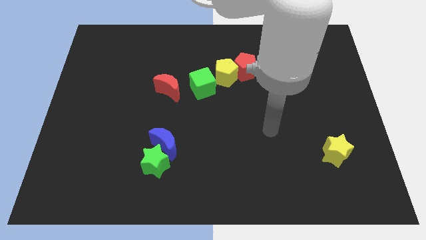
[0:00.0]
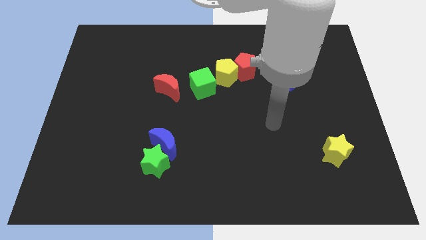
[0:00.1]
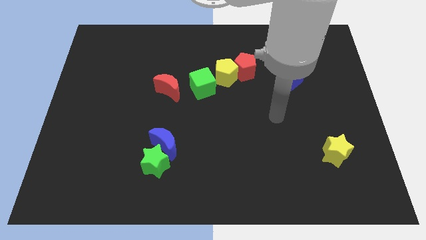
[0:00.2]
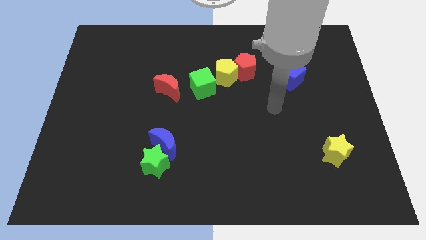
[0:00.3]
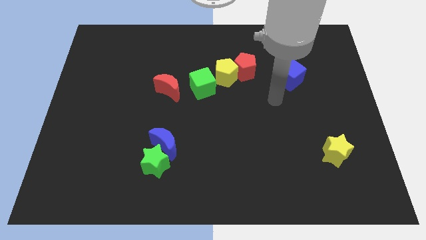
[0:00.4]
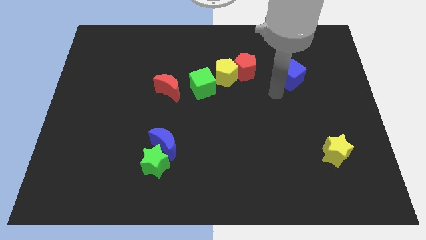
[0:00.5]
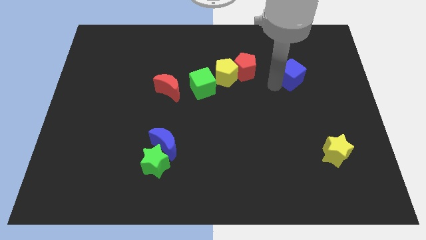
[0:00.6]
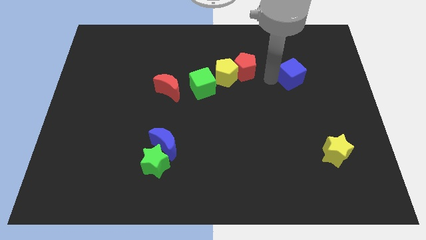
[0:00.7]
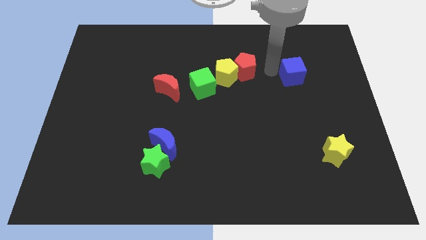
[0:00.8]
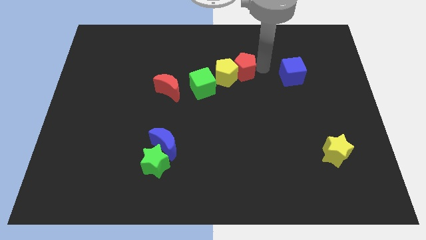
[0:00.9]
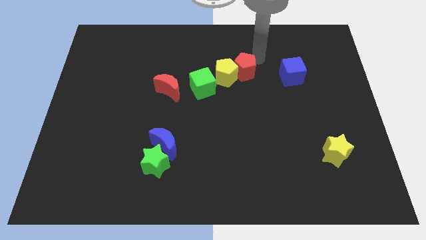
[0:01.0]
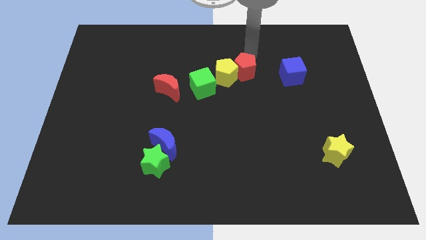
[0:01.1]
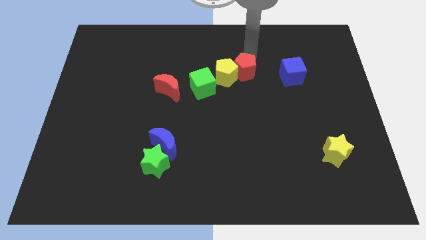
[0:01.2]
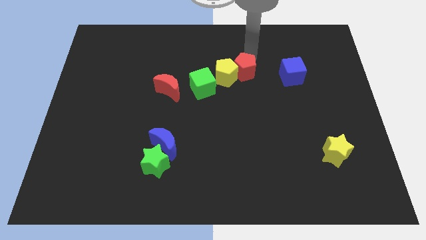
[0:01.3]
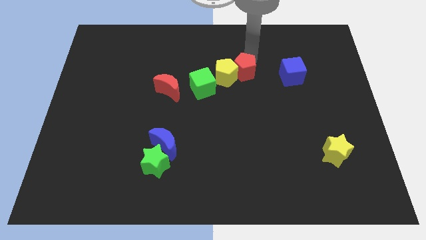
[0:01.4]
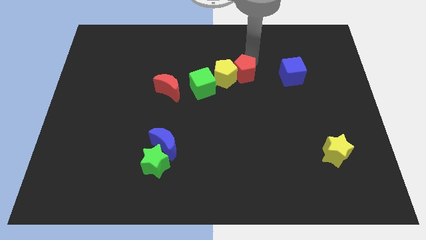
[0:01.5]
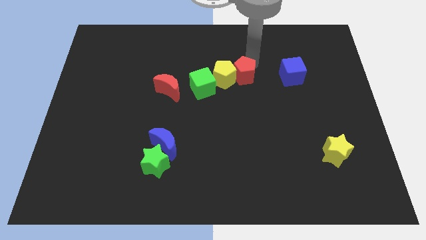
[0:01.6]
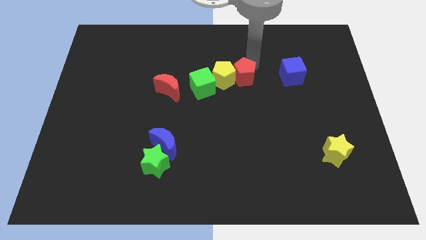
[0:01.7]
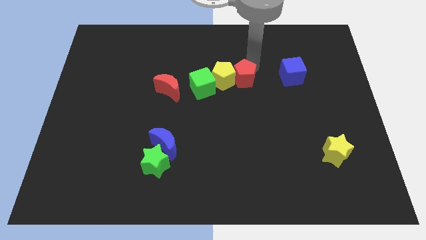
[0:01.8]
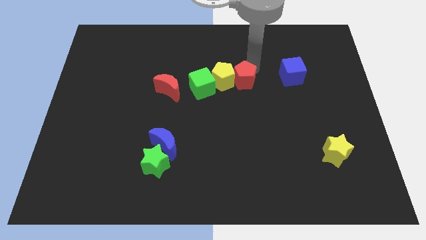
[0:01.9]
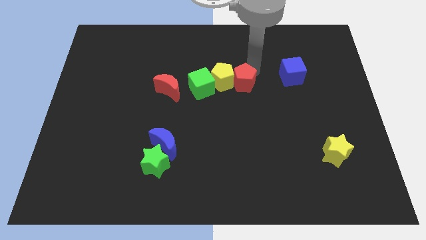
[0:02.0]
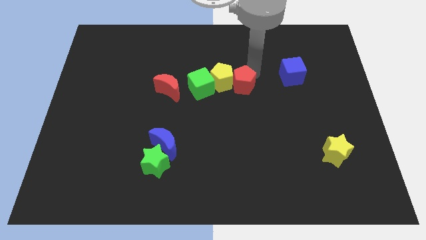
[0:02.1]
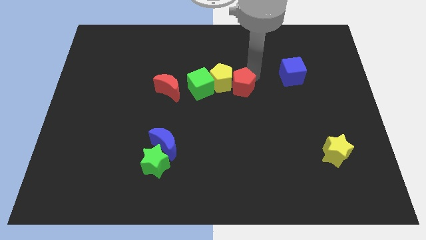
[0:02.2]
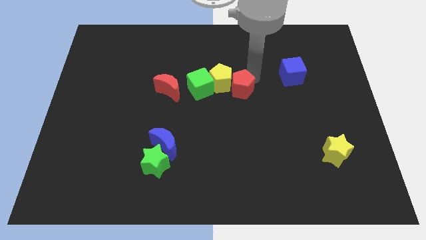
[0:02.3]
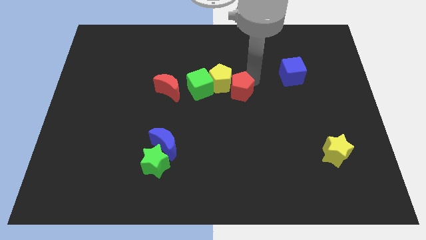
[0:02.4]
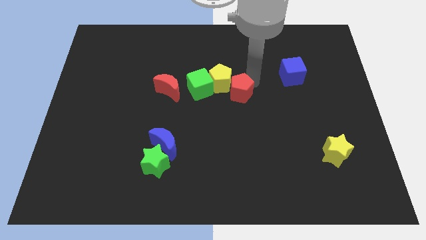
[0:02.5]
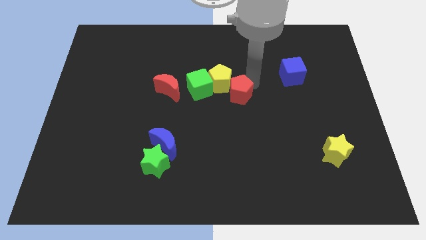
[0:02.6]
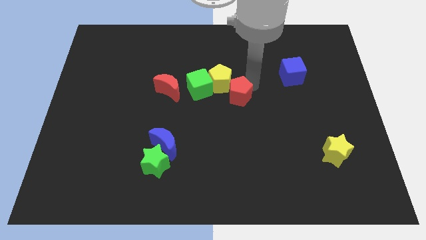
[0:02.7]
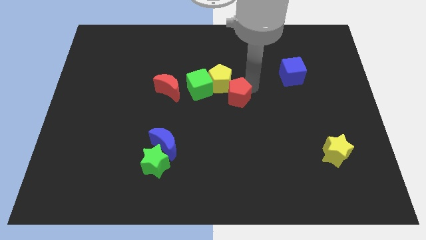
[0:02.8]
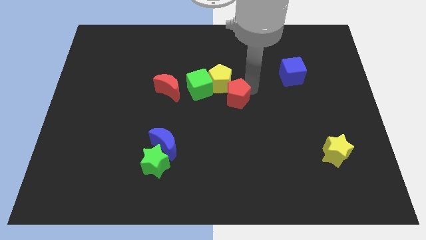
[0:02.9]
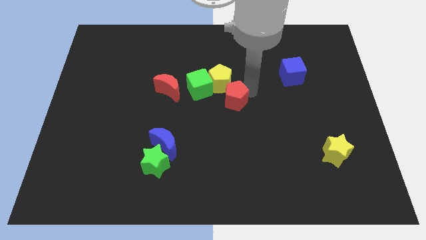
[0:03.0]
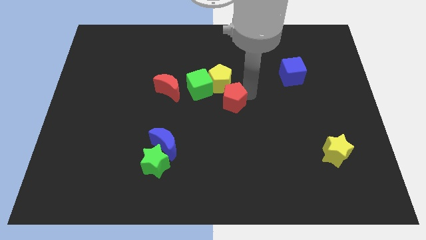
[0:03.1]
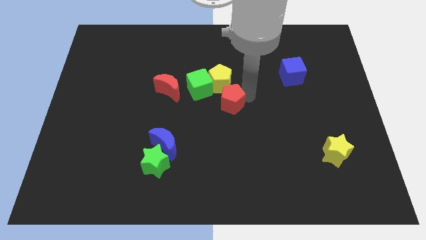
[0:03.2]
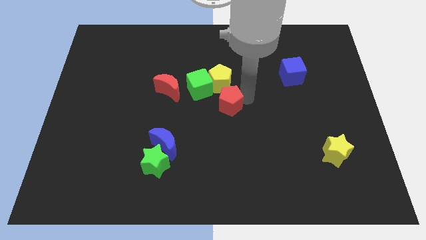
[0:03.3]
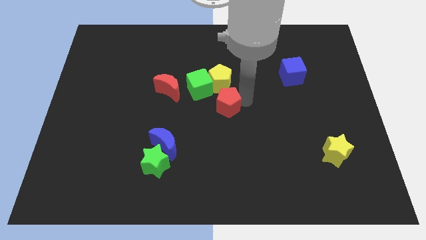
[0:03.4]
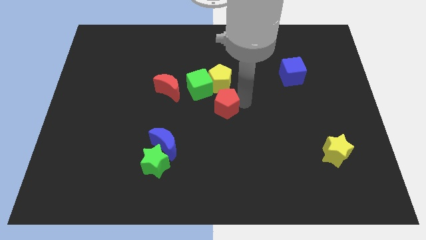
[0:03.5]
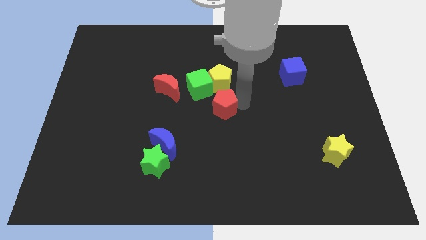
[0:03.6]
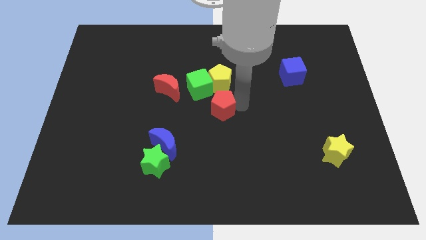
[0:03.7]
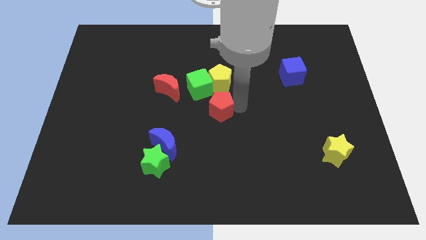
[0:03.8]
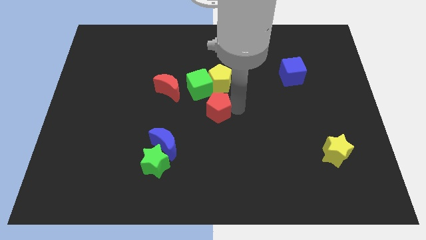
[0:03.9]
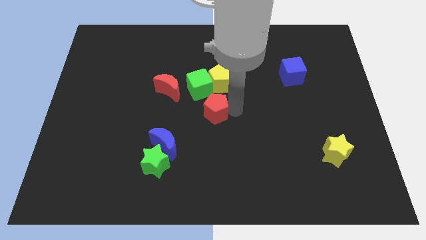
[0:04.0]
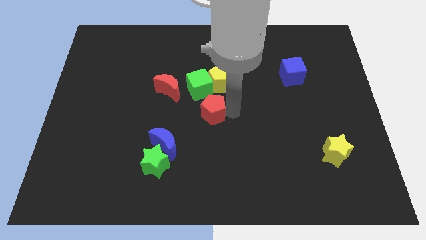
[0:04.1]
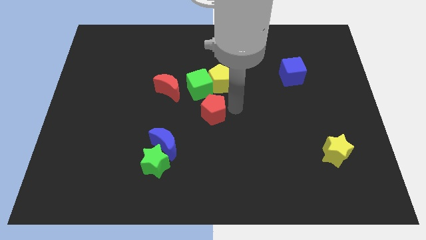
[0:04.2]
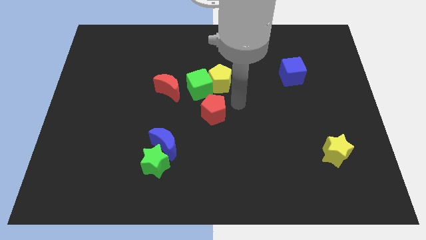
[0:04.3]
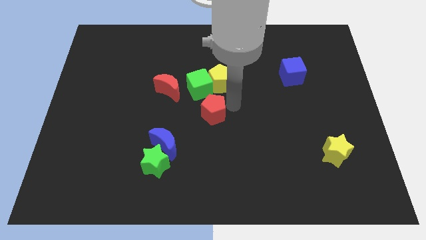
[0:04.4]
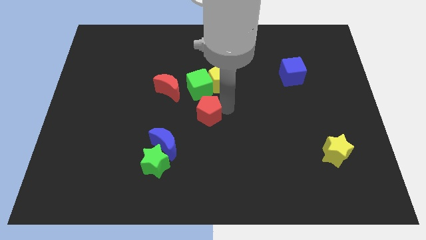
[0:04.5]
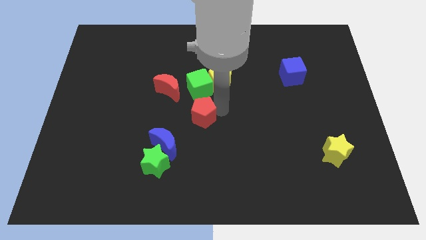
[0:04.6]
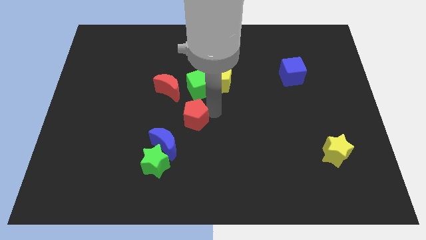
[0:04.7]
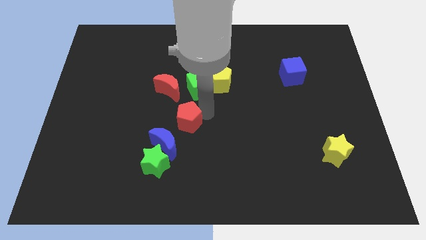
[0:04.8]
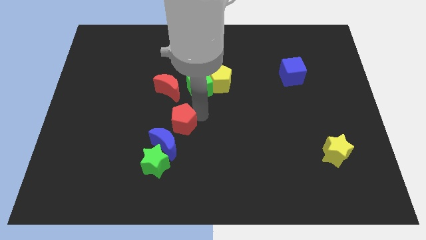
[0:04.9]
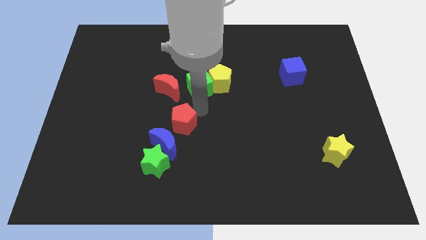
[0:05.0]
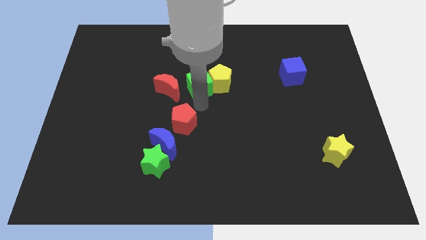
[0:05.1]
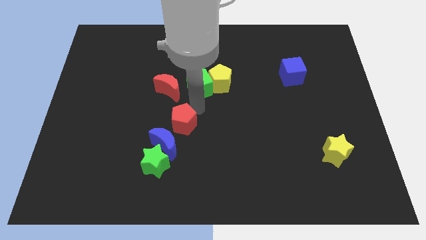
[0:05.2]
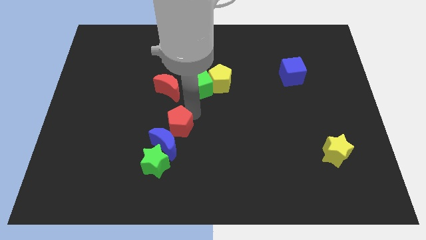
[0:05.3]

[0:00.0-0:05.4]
slide the red pentagon close to the blue moon

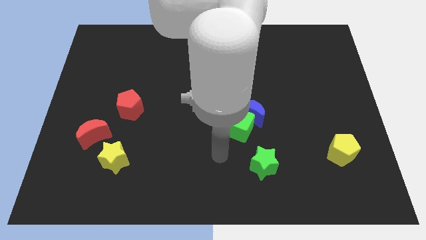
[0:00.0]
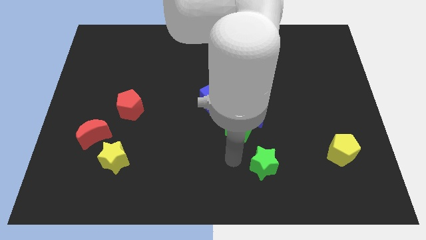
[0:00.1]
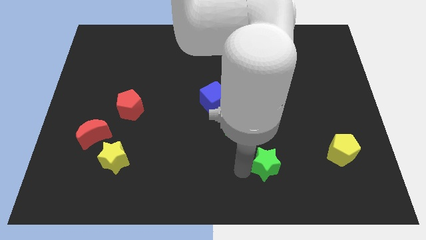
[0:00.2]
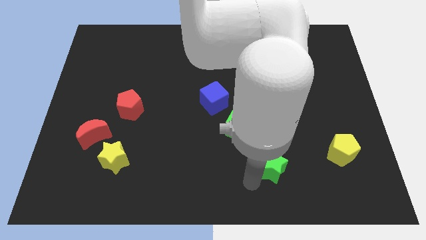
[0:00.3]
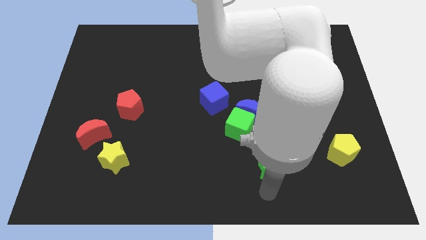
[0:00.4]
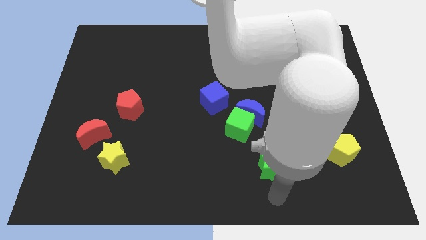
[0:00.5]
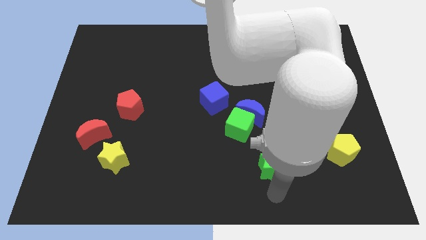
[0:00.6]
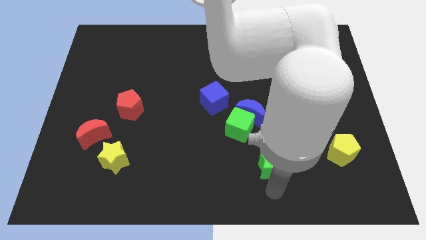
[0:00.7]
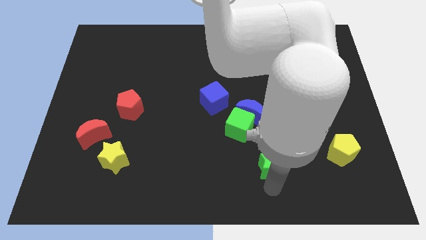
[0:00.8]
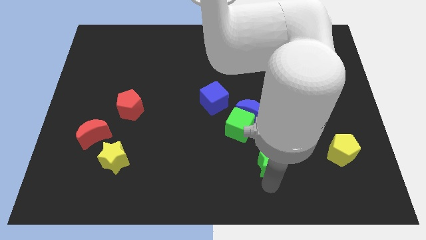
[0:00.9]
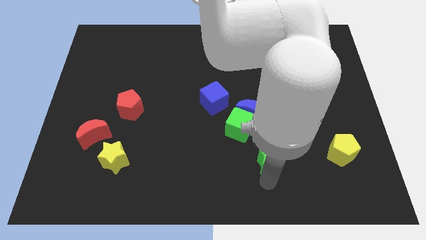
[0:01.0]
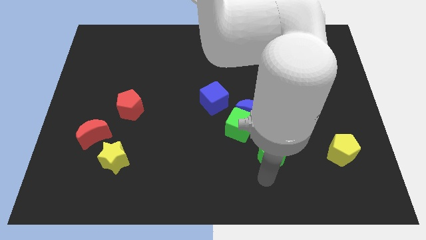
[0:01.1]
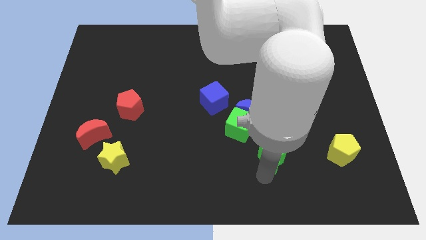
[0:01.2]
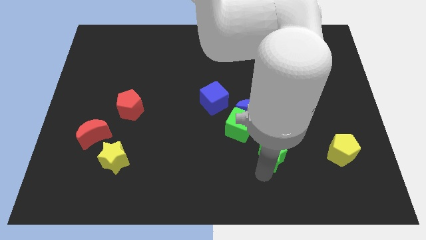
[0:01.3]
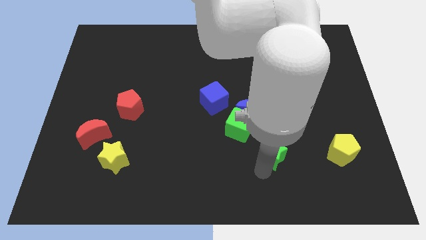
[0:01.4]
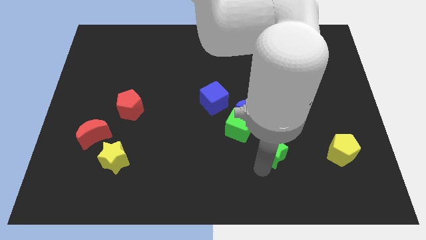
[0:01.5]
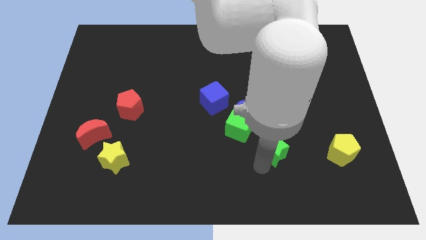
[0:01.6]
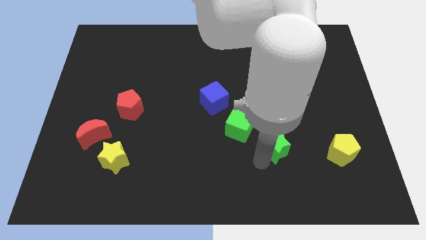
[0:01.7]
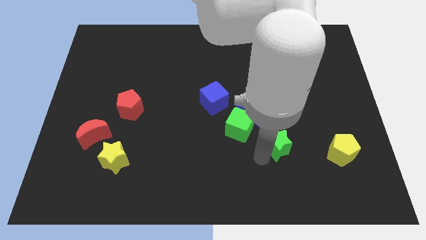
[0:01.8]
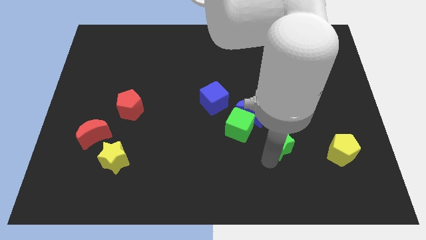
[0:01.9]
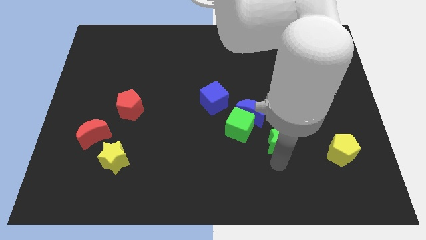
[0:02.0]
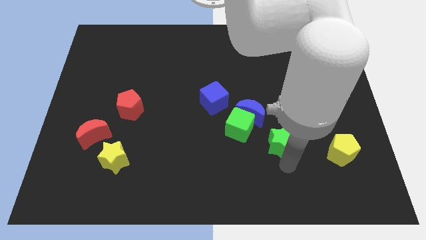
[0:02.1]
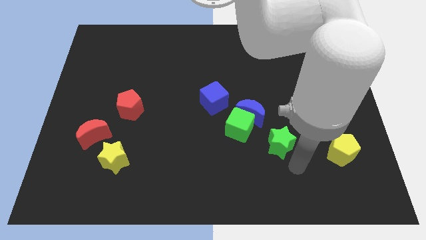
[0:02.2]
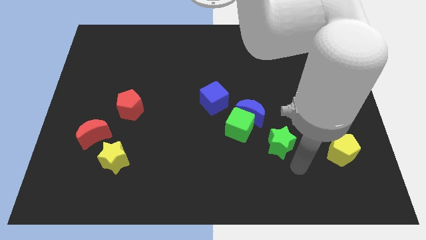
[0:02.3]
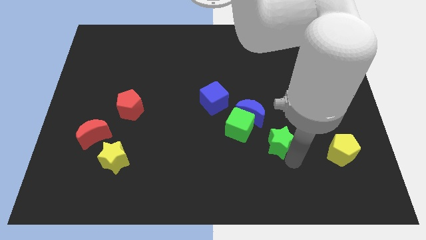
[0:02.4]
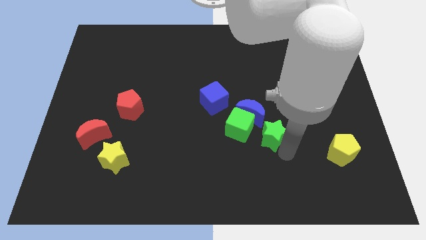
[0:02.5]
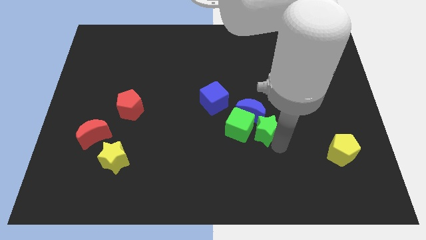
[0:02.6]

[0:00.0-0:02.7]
push the green star to the blue moon
